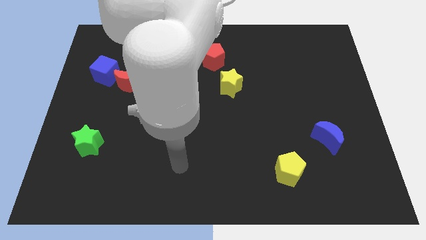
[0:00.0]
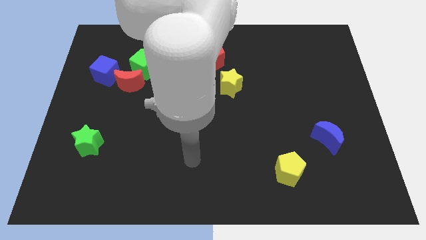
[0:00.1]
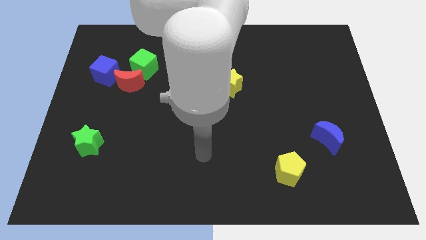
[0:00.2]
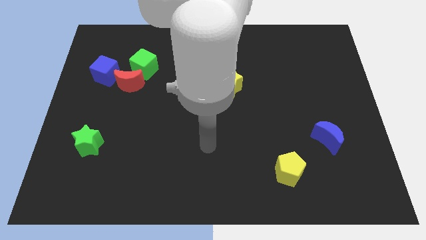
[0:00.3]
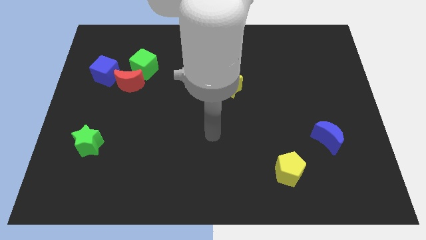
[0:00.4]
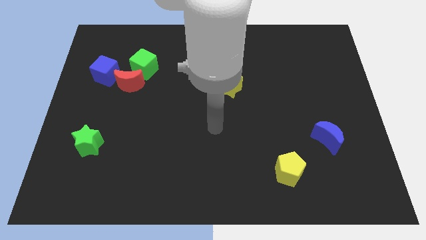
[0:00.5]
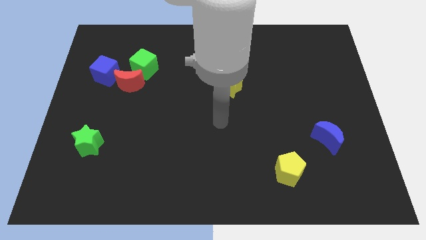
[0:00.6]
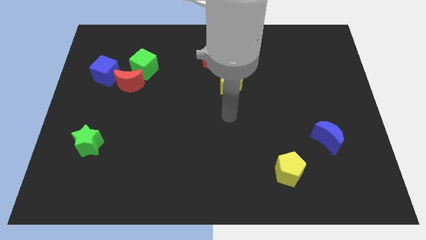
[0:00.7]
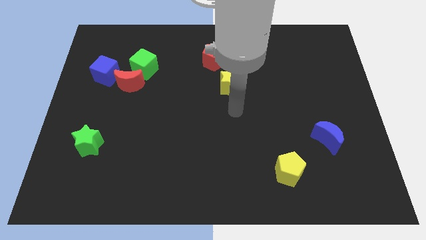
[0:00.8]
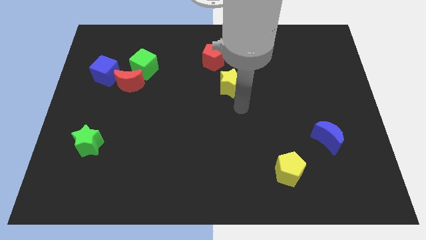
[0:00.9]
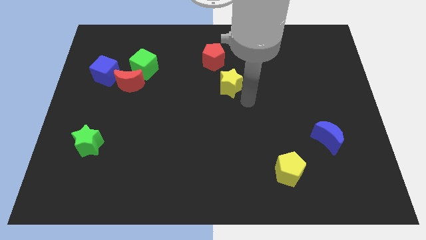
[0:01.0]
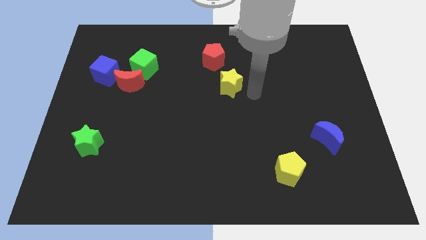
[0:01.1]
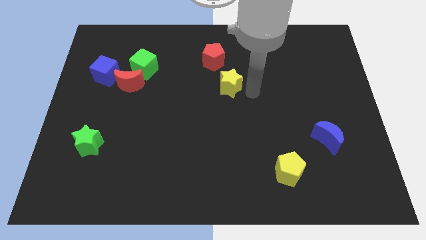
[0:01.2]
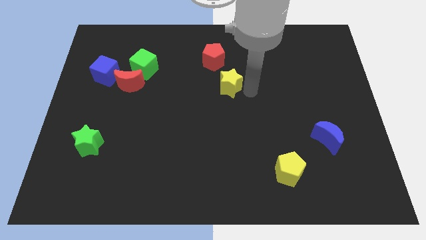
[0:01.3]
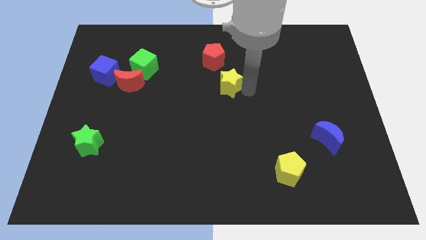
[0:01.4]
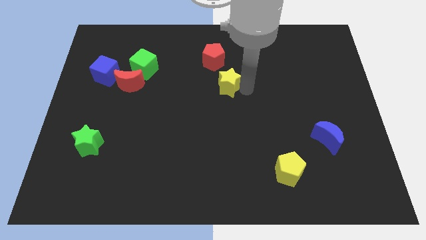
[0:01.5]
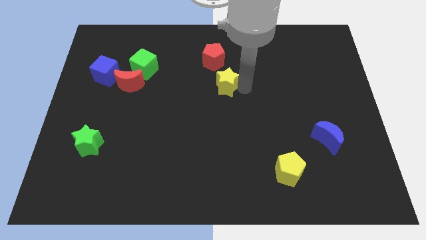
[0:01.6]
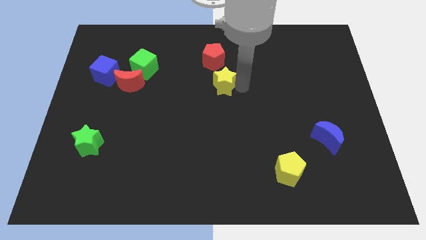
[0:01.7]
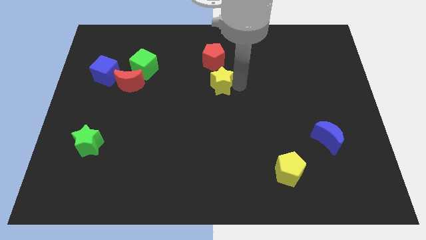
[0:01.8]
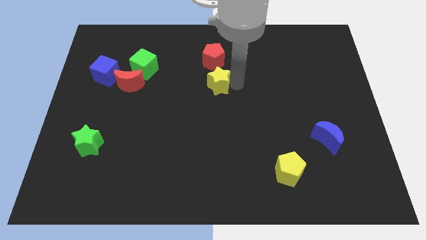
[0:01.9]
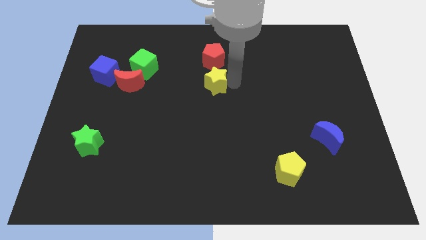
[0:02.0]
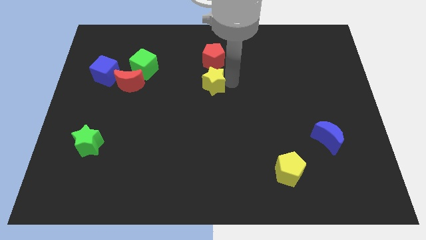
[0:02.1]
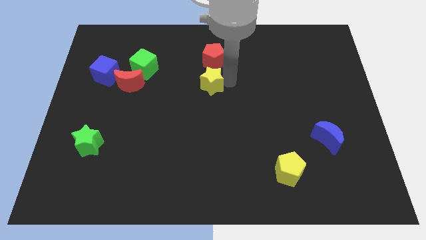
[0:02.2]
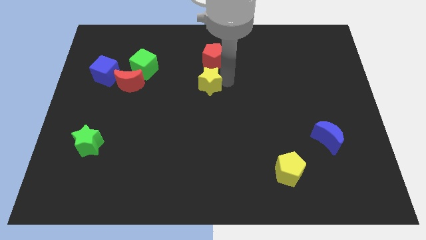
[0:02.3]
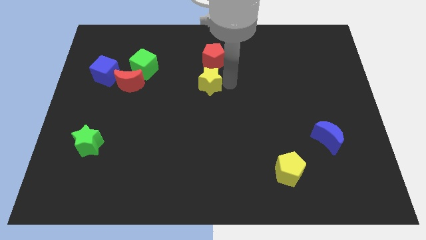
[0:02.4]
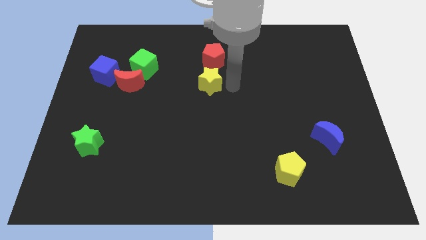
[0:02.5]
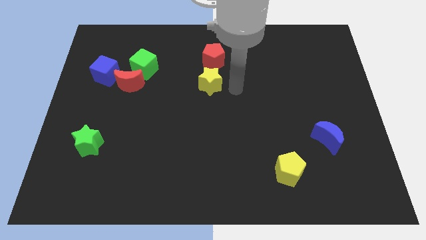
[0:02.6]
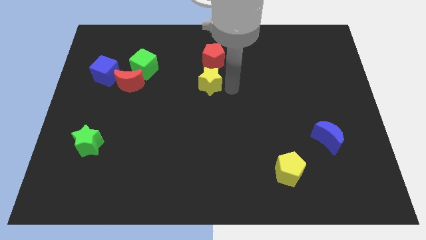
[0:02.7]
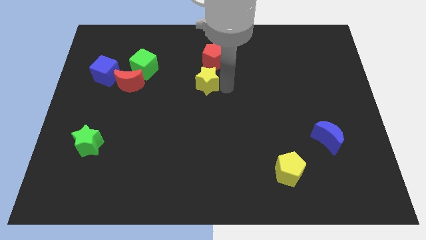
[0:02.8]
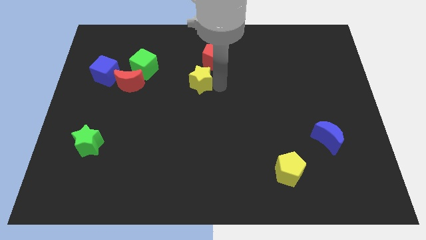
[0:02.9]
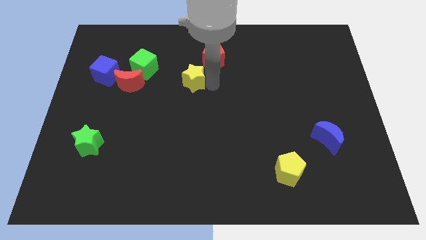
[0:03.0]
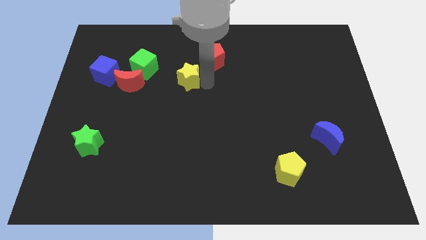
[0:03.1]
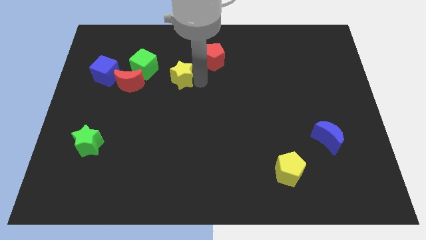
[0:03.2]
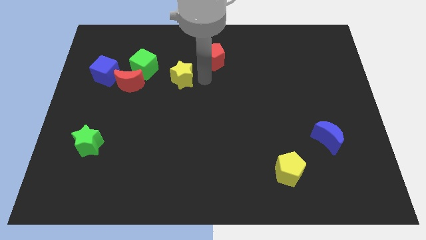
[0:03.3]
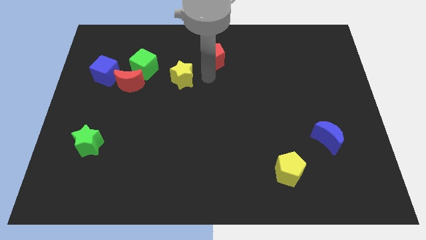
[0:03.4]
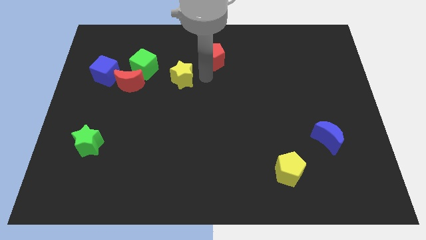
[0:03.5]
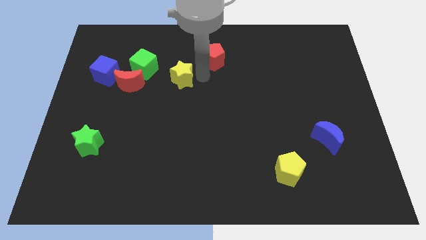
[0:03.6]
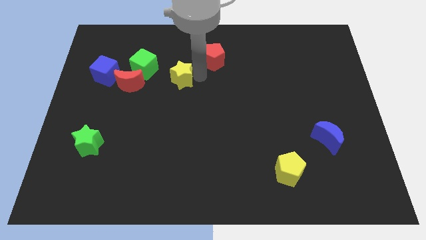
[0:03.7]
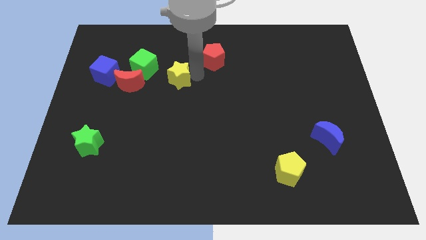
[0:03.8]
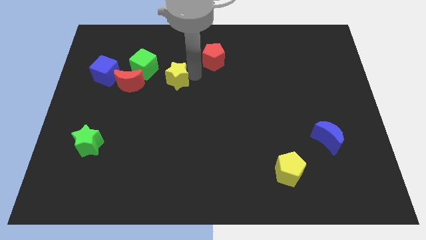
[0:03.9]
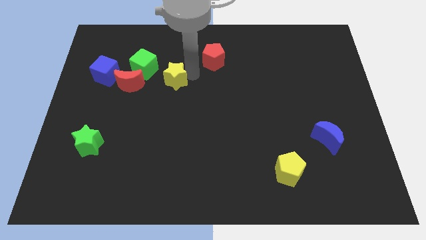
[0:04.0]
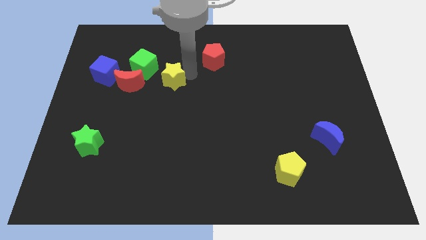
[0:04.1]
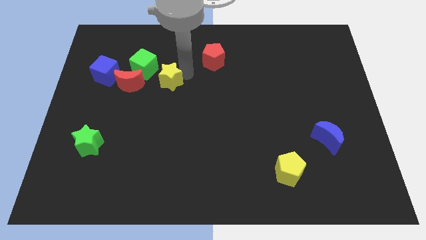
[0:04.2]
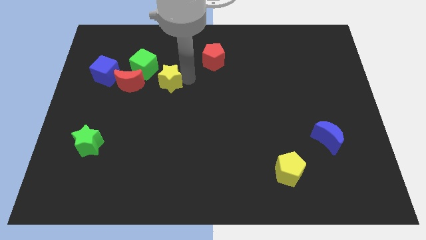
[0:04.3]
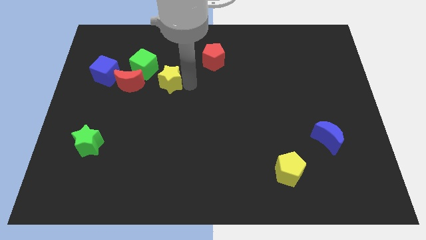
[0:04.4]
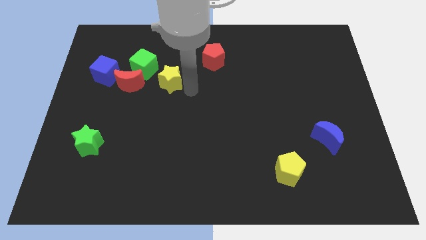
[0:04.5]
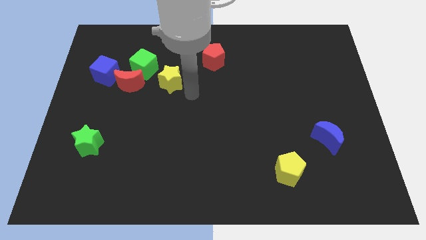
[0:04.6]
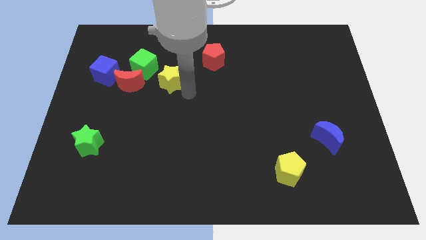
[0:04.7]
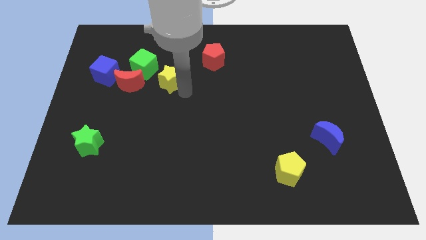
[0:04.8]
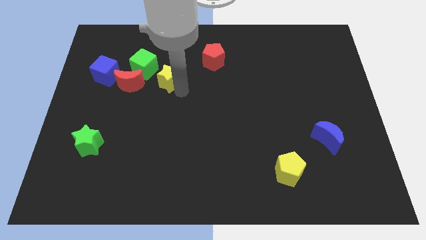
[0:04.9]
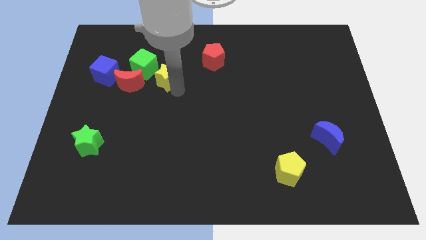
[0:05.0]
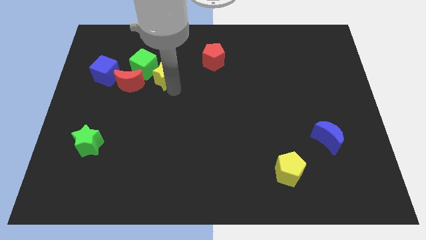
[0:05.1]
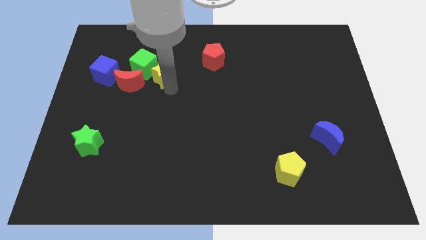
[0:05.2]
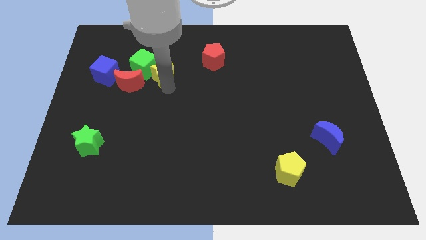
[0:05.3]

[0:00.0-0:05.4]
push the yellow star to the green cube

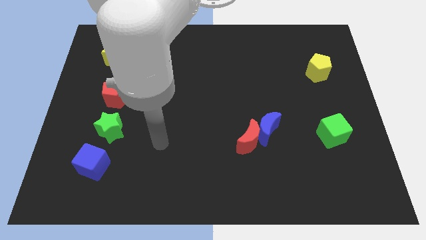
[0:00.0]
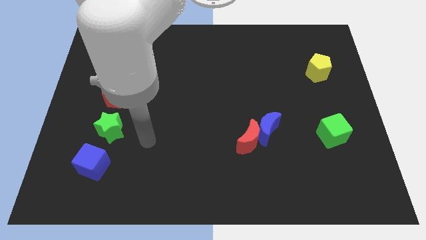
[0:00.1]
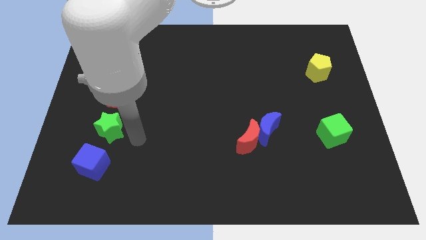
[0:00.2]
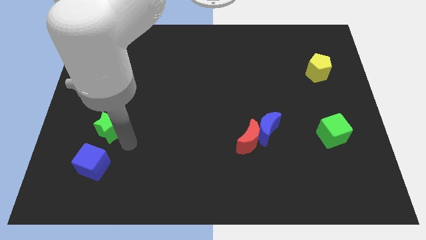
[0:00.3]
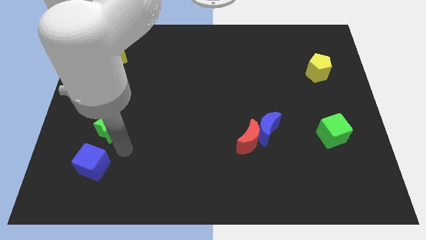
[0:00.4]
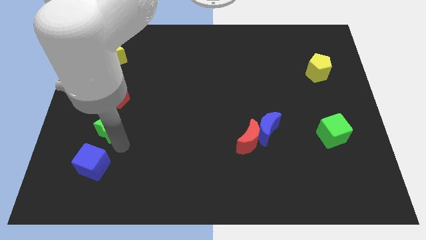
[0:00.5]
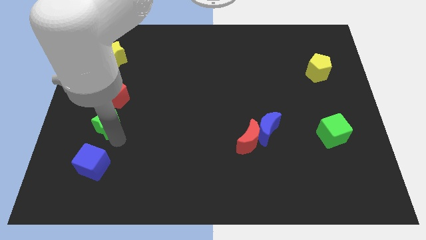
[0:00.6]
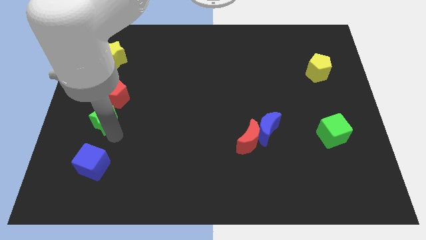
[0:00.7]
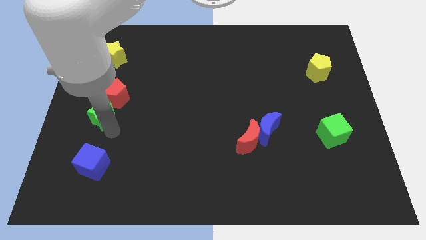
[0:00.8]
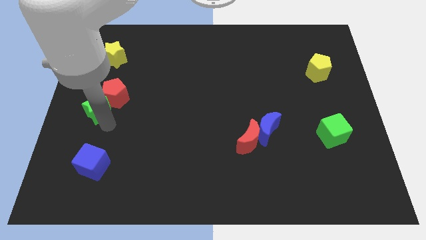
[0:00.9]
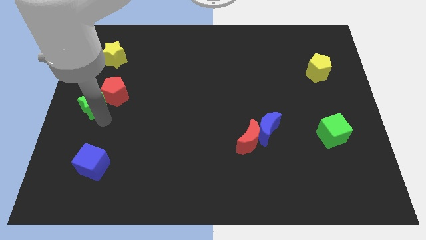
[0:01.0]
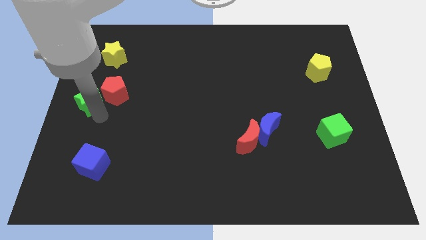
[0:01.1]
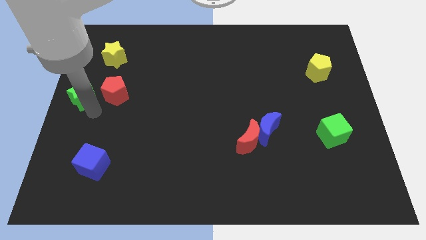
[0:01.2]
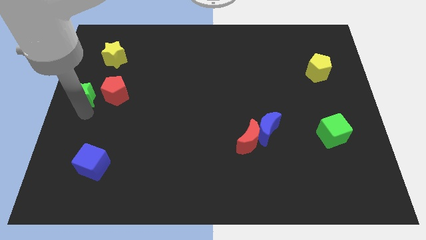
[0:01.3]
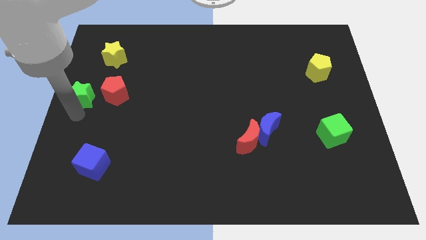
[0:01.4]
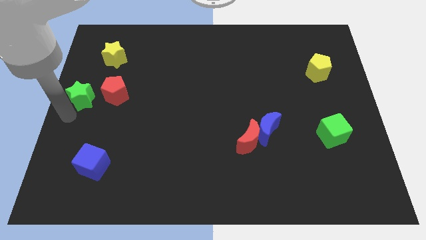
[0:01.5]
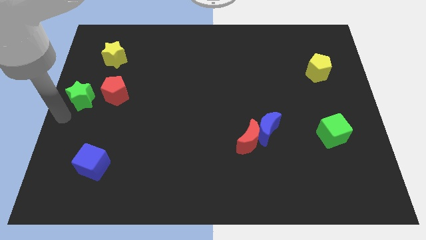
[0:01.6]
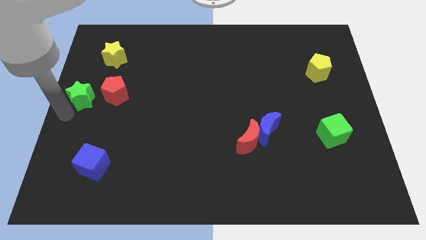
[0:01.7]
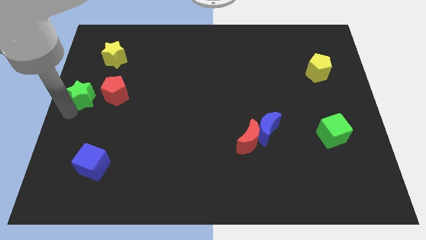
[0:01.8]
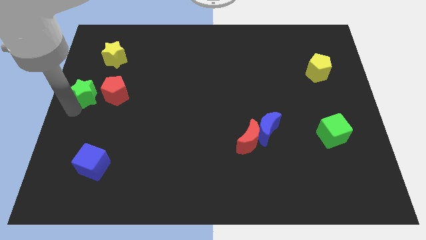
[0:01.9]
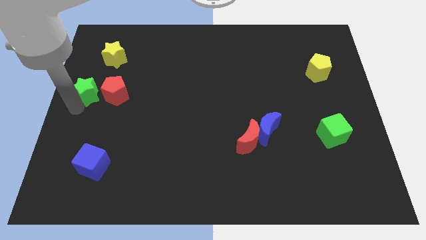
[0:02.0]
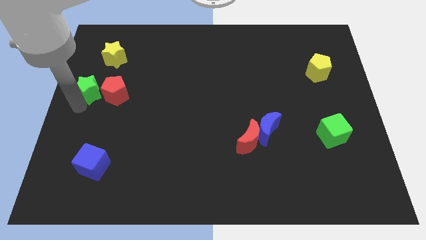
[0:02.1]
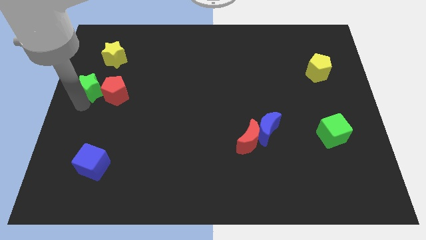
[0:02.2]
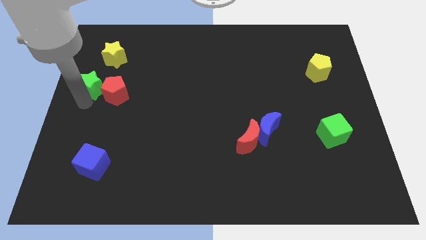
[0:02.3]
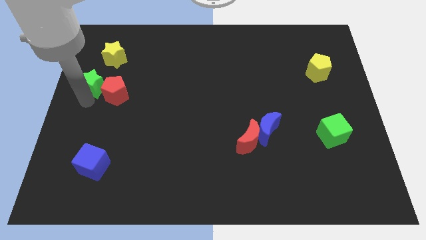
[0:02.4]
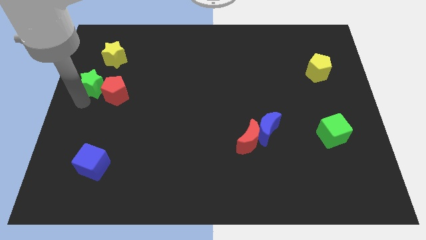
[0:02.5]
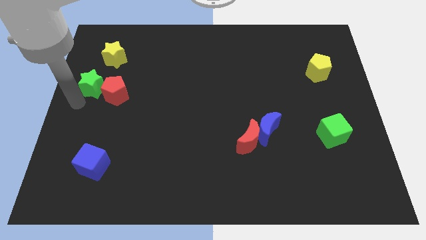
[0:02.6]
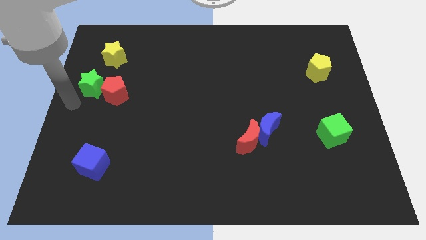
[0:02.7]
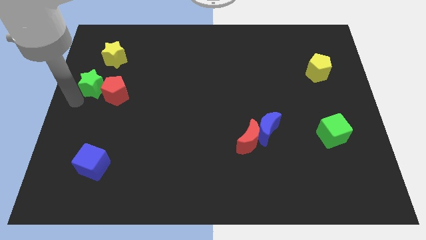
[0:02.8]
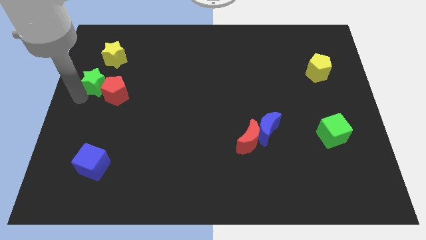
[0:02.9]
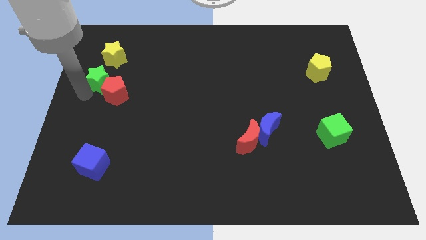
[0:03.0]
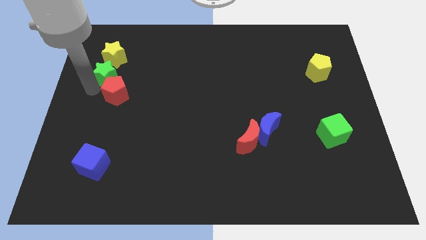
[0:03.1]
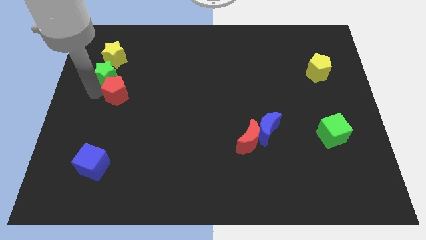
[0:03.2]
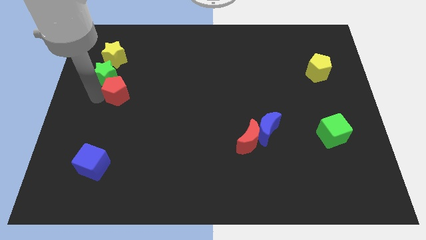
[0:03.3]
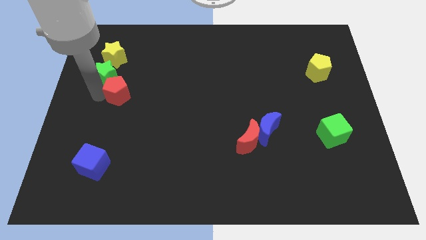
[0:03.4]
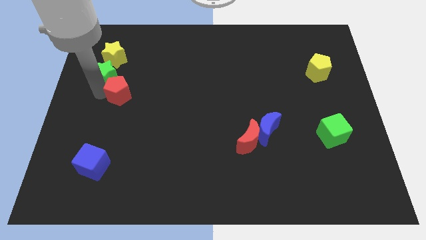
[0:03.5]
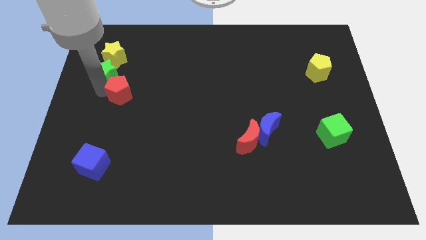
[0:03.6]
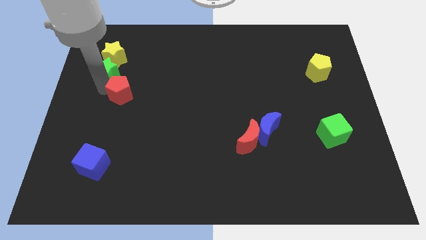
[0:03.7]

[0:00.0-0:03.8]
slide the green star next to the yellow star
